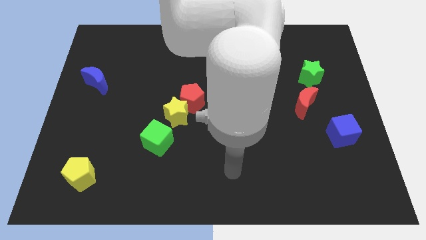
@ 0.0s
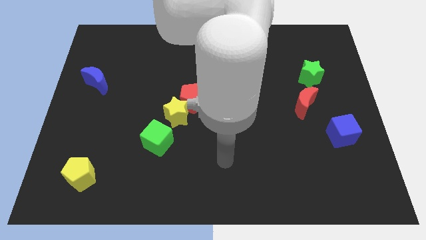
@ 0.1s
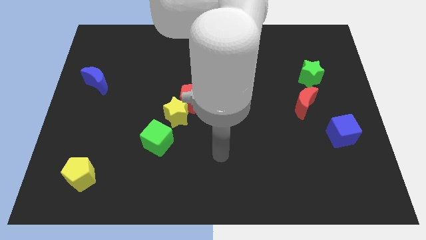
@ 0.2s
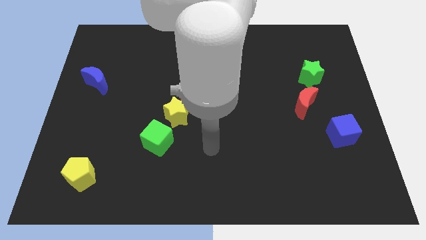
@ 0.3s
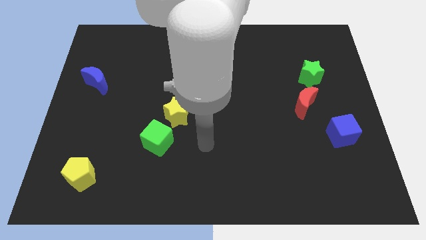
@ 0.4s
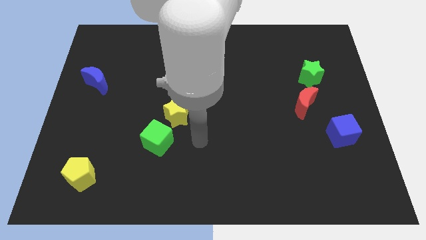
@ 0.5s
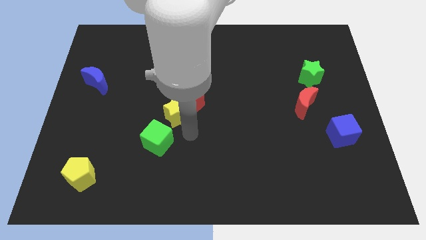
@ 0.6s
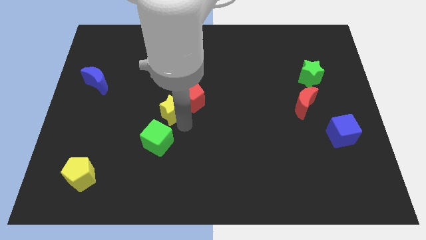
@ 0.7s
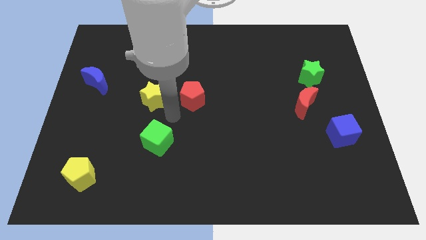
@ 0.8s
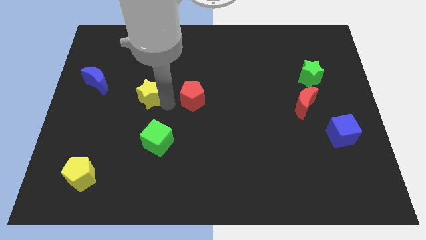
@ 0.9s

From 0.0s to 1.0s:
pull the red pentagon apart from the yellow star

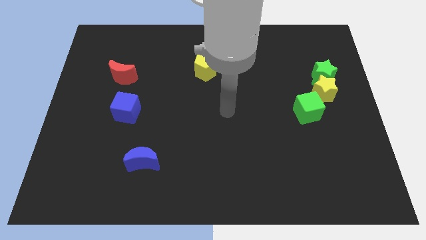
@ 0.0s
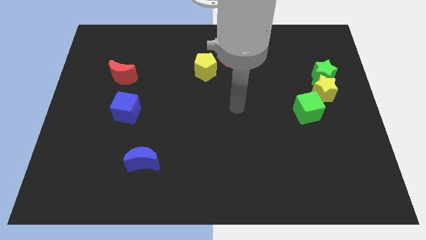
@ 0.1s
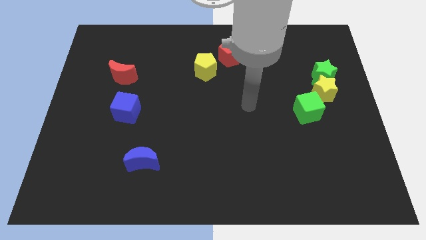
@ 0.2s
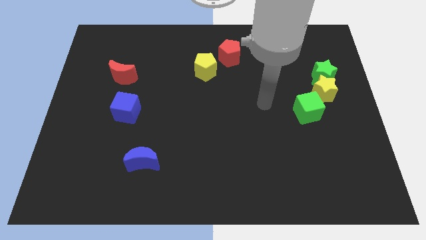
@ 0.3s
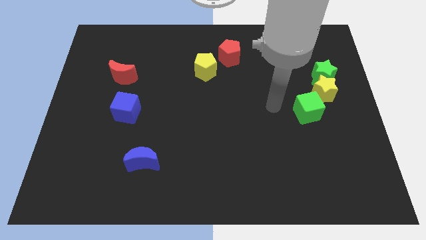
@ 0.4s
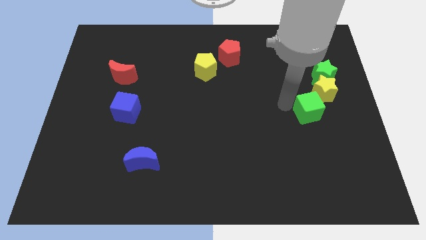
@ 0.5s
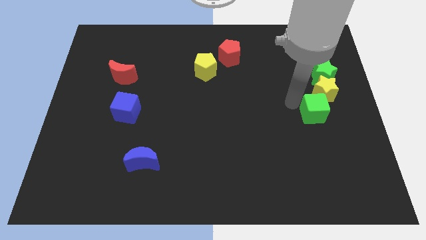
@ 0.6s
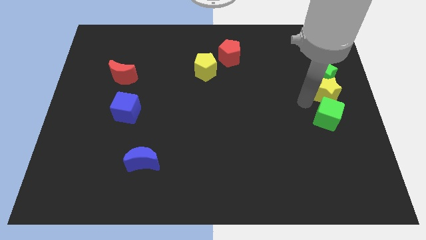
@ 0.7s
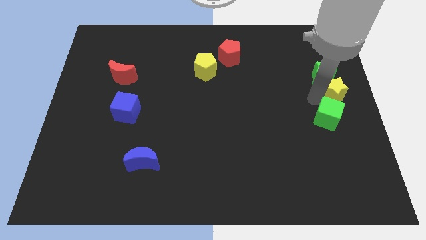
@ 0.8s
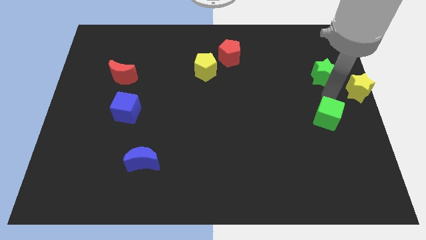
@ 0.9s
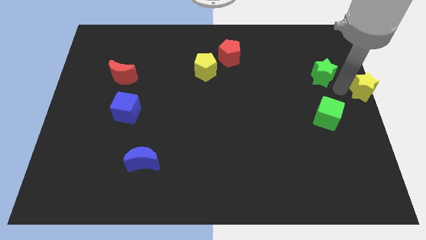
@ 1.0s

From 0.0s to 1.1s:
move the green star away from the yellow star

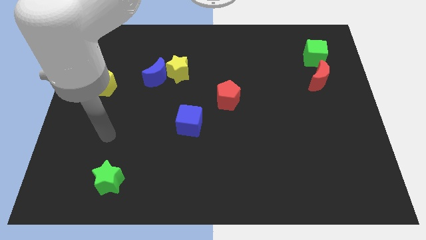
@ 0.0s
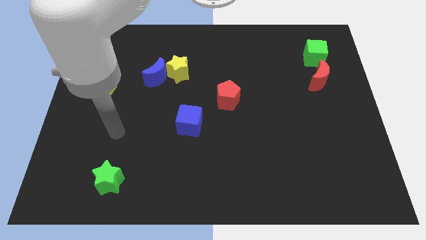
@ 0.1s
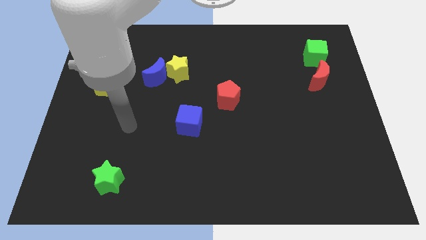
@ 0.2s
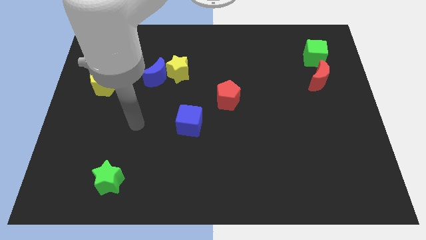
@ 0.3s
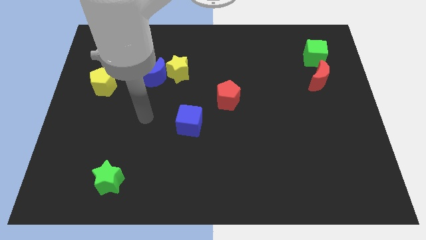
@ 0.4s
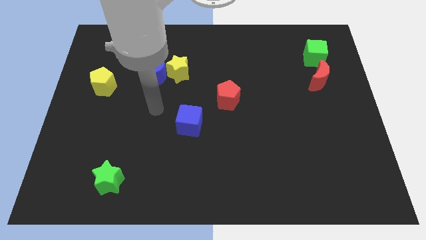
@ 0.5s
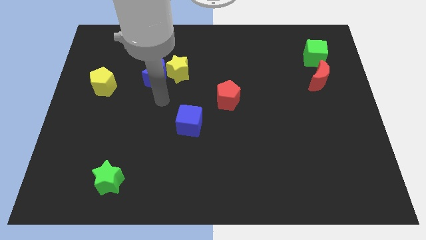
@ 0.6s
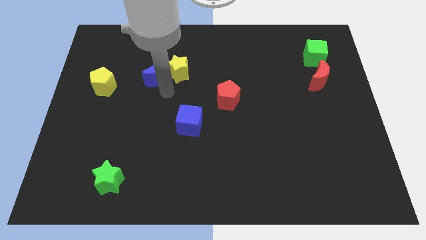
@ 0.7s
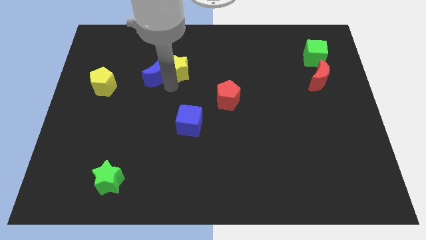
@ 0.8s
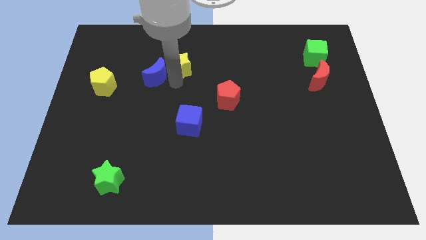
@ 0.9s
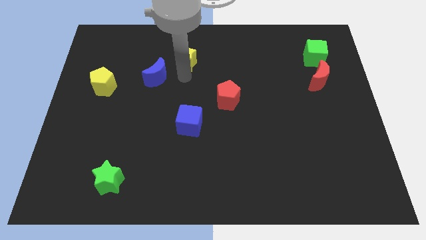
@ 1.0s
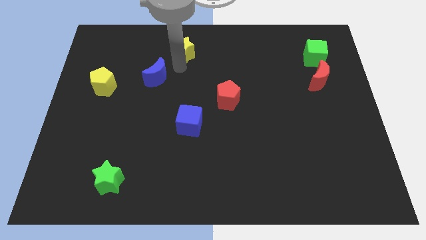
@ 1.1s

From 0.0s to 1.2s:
separate the blue moon from the yellow star

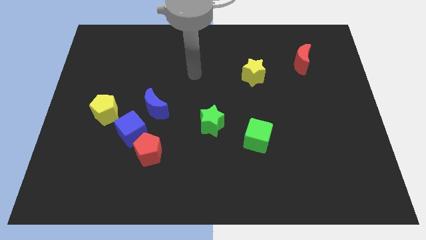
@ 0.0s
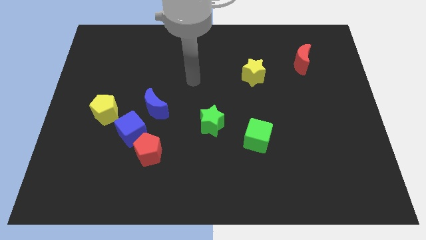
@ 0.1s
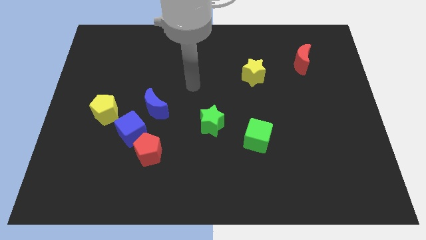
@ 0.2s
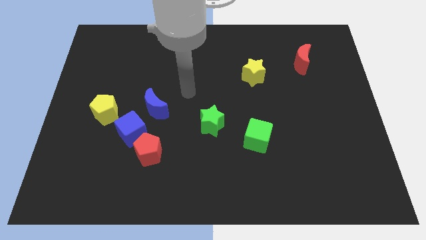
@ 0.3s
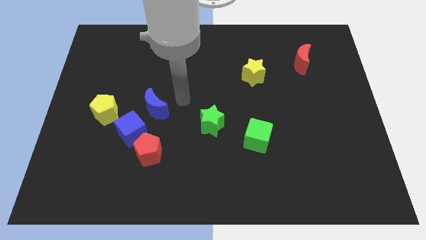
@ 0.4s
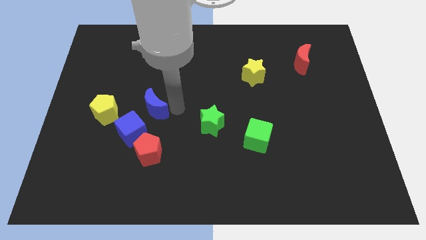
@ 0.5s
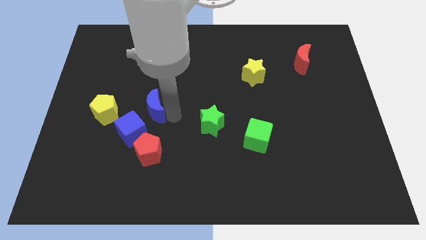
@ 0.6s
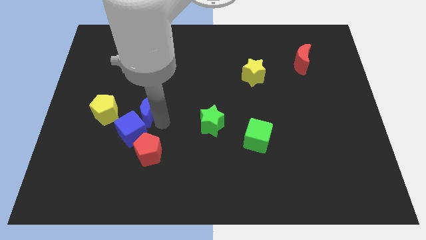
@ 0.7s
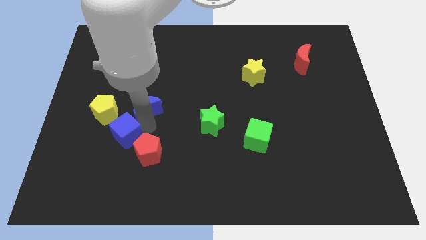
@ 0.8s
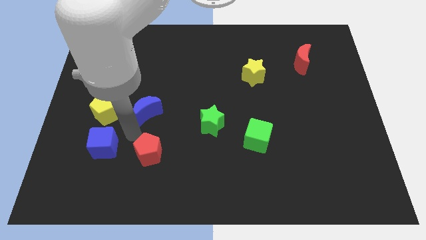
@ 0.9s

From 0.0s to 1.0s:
move the red pentagon away from the blue cube

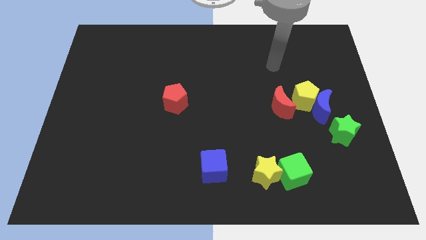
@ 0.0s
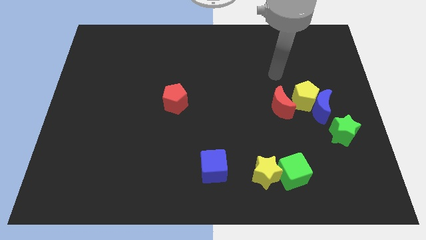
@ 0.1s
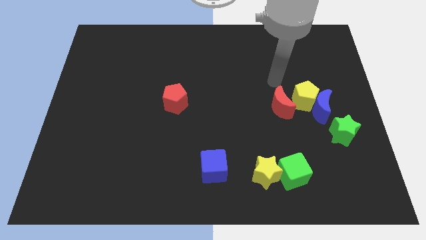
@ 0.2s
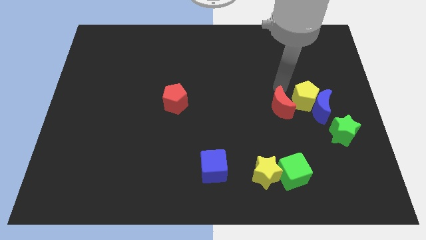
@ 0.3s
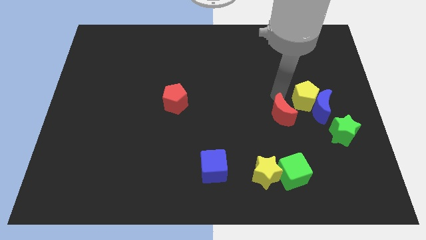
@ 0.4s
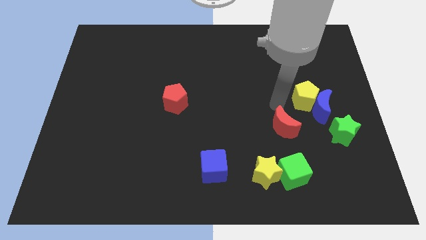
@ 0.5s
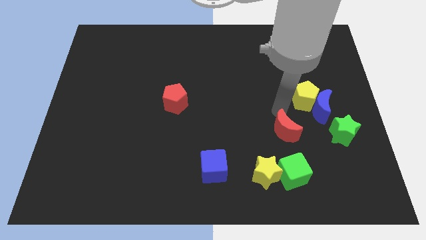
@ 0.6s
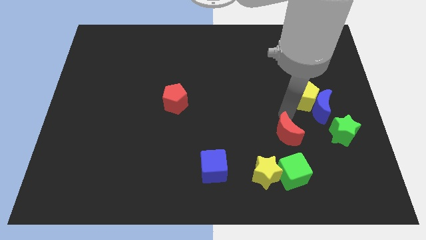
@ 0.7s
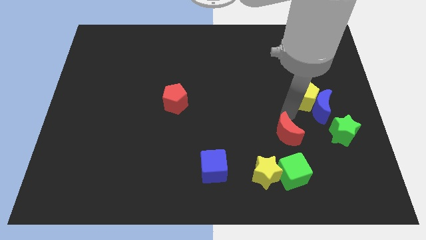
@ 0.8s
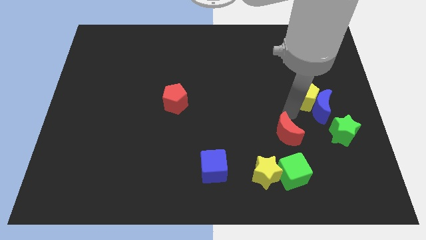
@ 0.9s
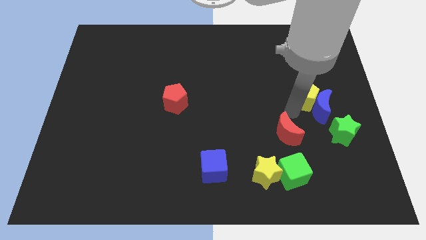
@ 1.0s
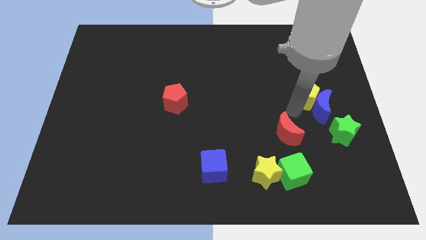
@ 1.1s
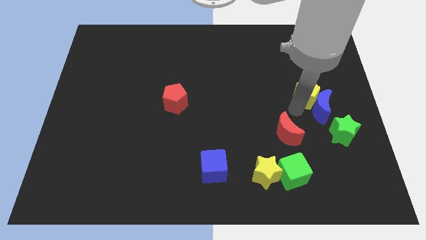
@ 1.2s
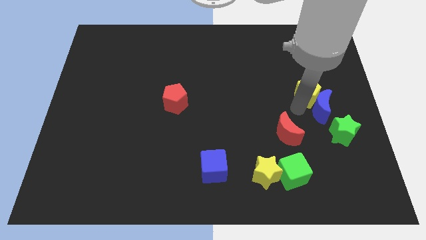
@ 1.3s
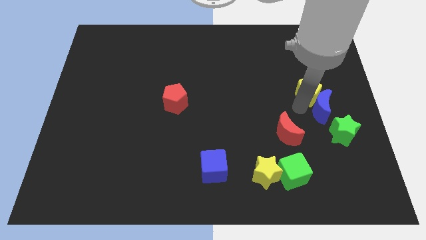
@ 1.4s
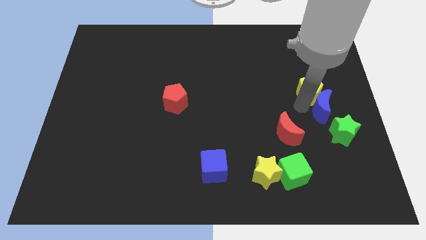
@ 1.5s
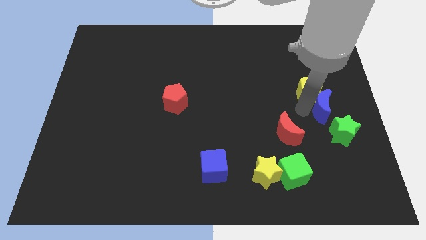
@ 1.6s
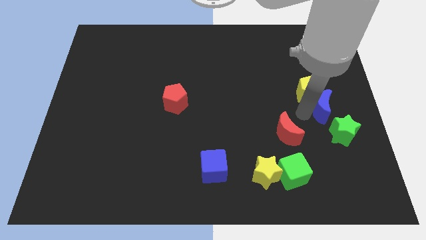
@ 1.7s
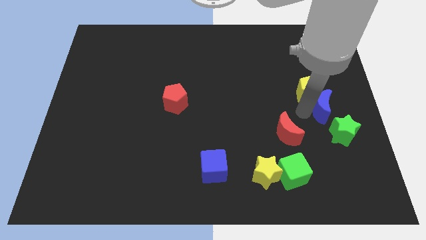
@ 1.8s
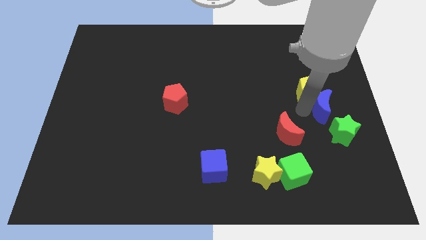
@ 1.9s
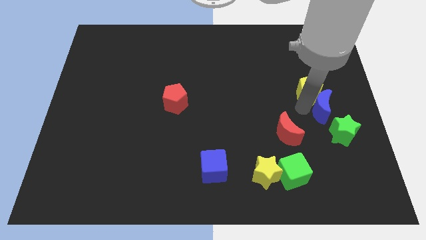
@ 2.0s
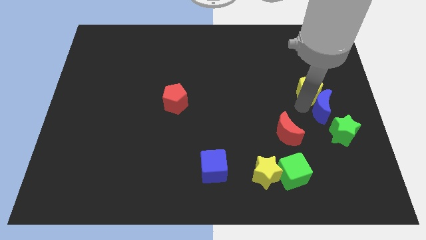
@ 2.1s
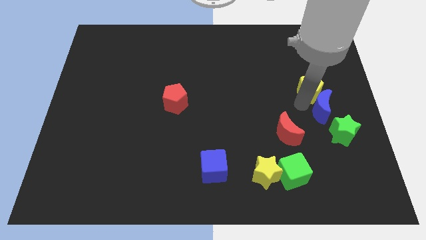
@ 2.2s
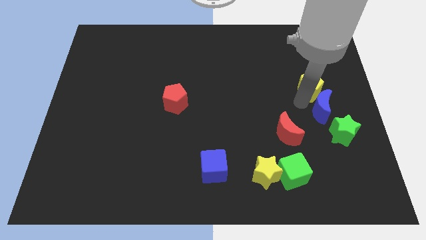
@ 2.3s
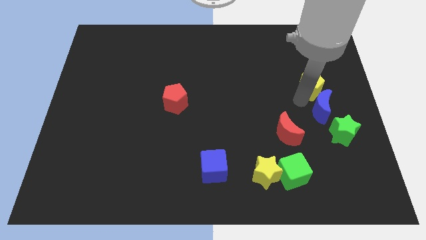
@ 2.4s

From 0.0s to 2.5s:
separate the yellow pentagon from the blue moon and red moon

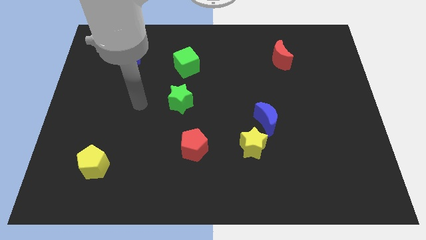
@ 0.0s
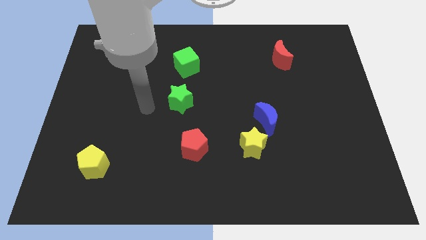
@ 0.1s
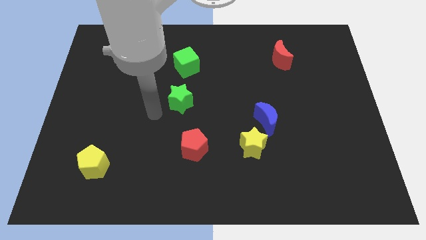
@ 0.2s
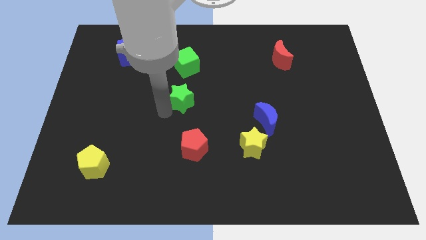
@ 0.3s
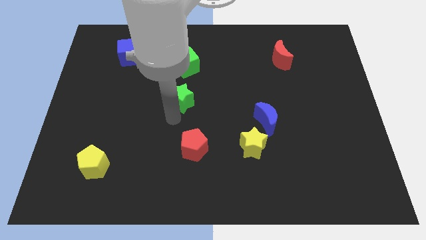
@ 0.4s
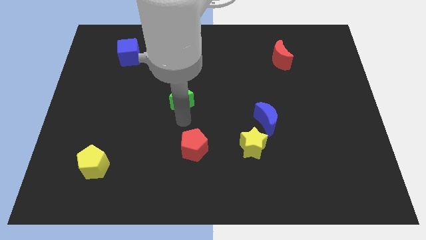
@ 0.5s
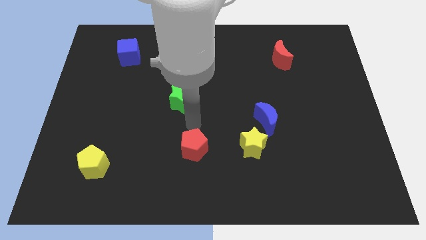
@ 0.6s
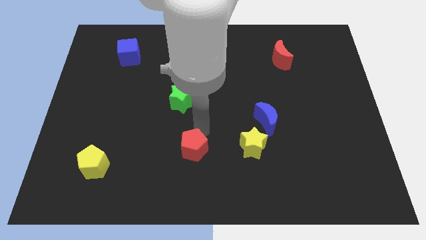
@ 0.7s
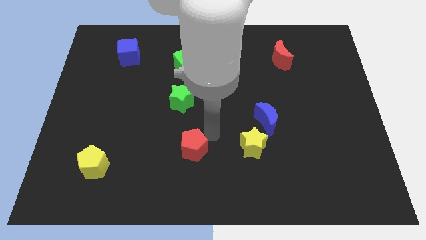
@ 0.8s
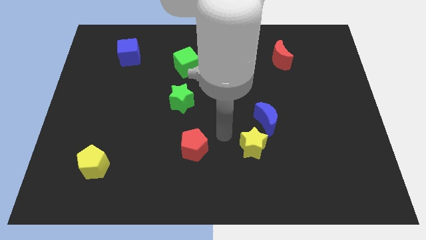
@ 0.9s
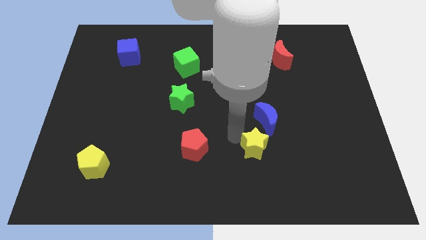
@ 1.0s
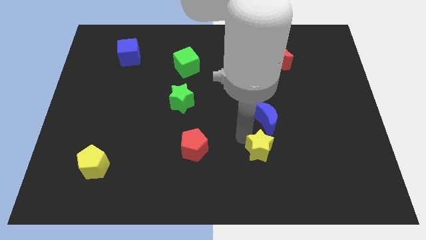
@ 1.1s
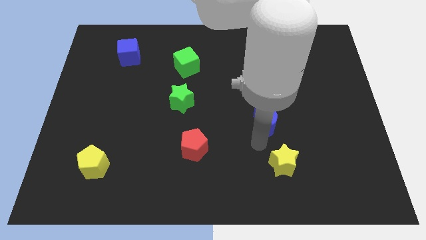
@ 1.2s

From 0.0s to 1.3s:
move the blue moon away from the yellow star

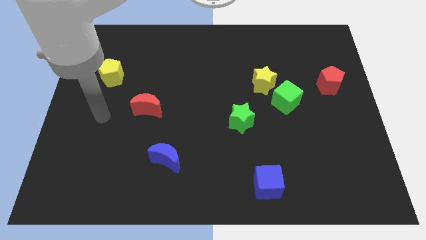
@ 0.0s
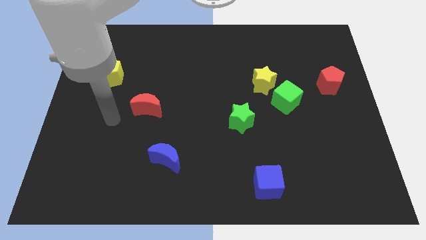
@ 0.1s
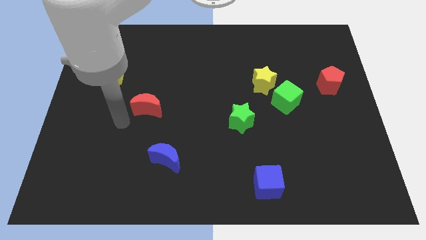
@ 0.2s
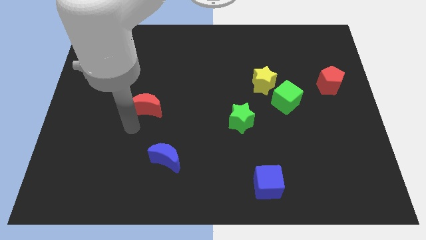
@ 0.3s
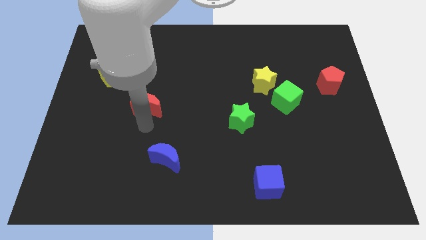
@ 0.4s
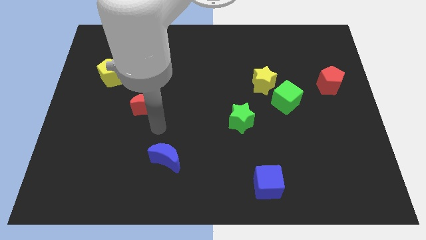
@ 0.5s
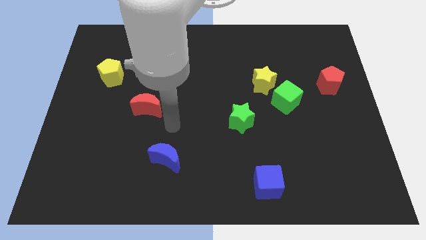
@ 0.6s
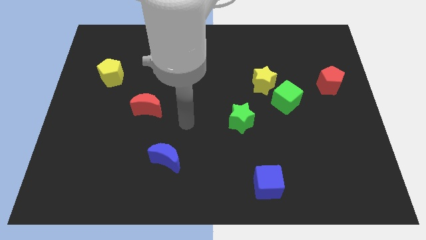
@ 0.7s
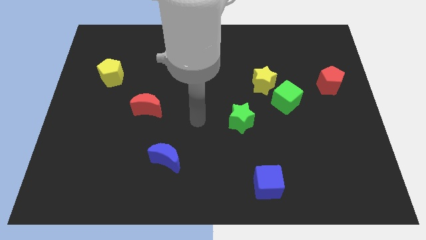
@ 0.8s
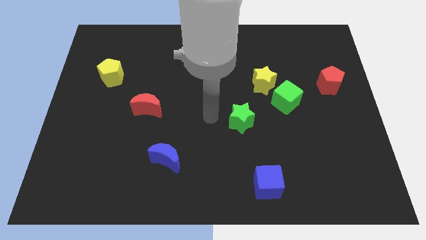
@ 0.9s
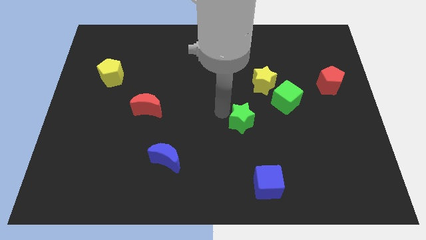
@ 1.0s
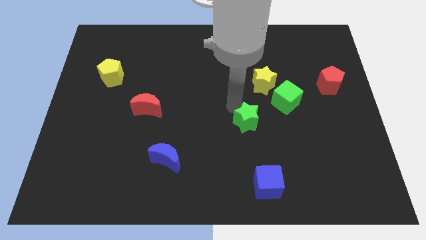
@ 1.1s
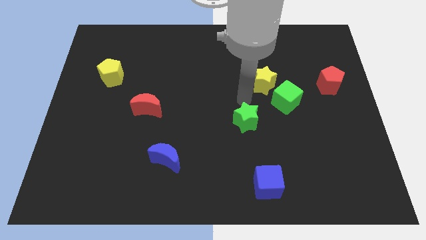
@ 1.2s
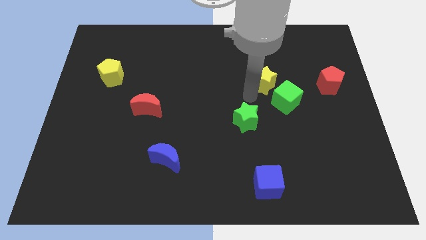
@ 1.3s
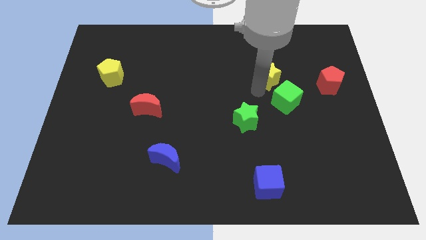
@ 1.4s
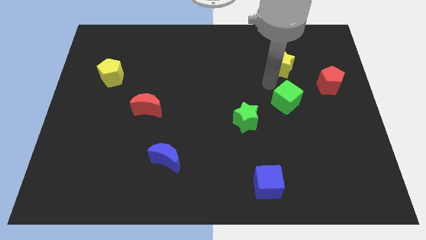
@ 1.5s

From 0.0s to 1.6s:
separate the green cube from the yellow star
